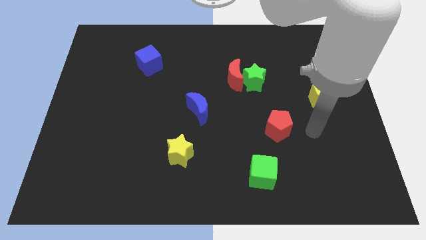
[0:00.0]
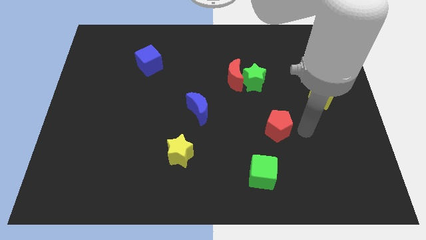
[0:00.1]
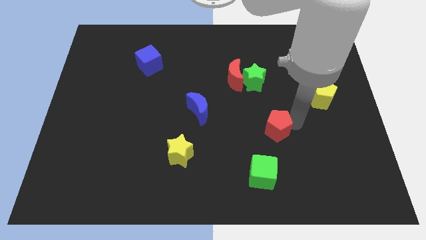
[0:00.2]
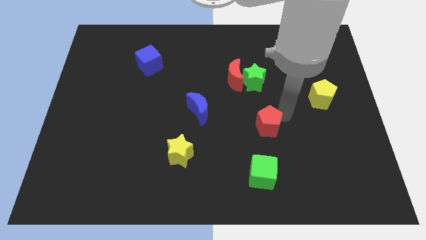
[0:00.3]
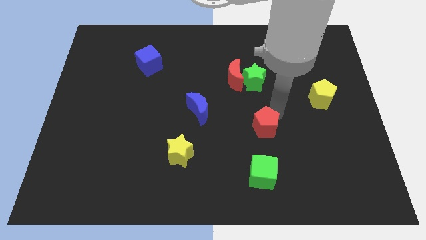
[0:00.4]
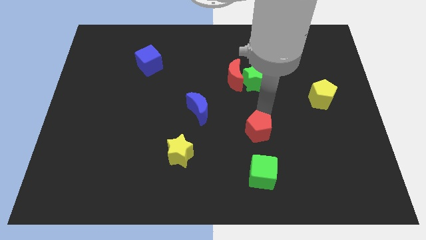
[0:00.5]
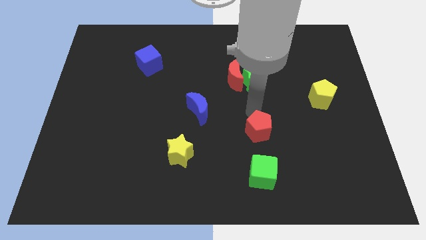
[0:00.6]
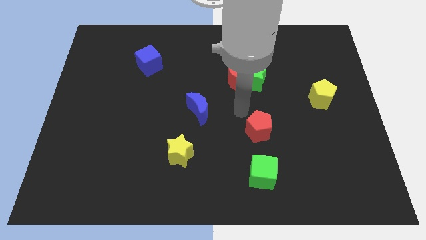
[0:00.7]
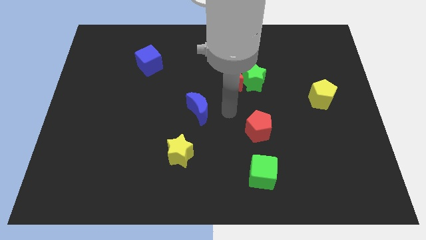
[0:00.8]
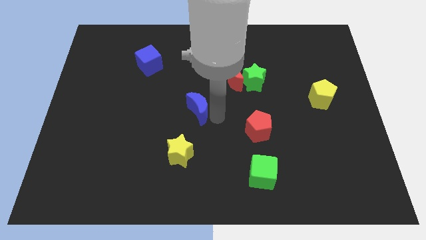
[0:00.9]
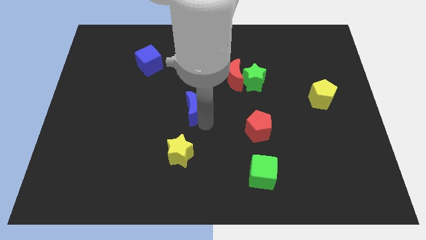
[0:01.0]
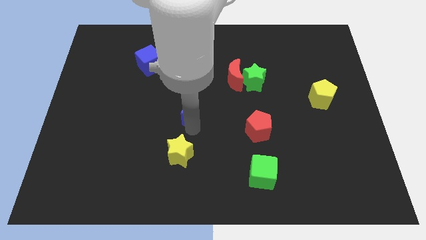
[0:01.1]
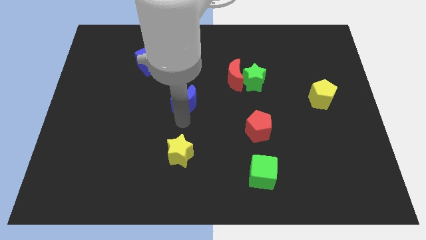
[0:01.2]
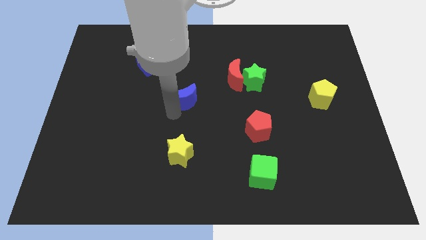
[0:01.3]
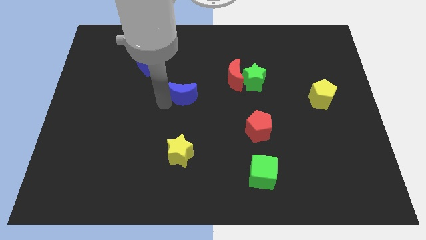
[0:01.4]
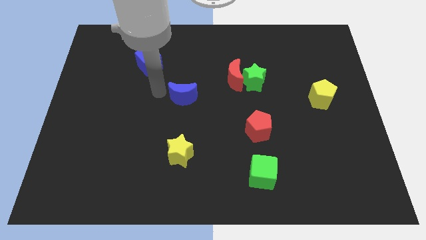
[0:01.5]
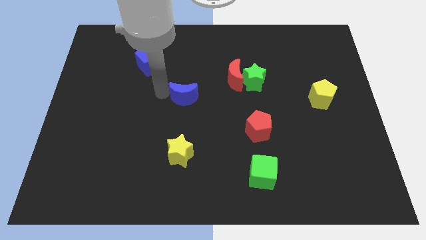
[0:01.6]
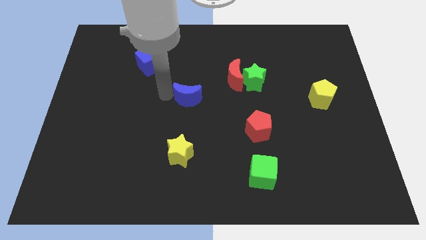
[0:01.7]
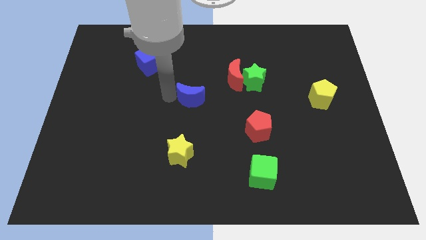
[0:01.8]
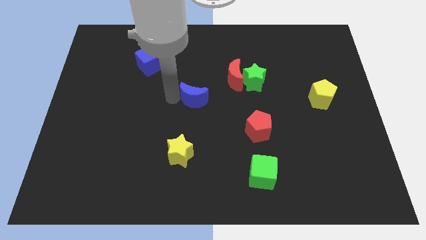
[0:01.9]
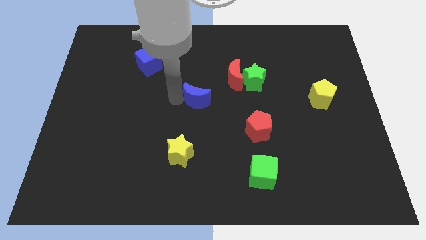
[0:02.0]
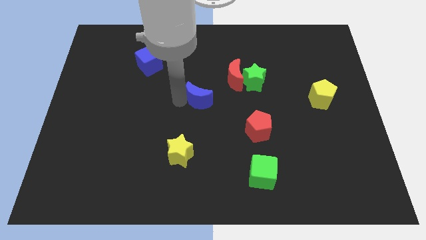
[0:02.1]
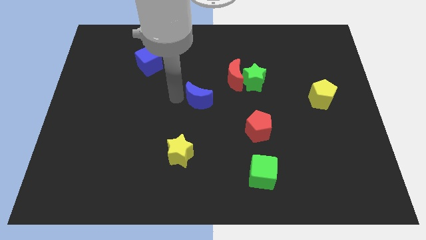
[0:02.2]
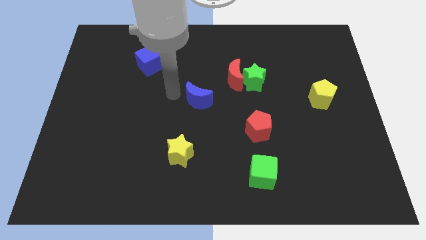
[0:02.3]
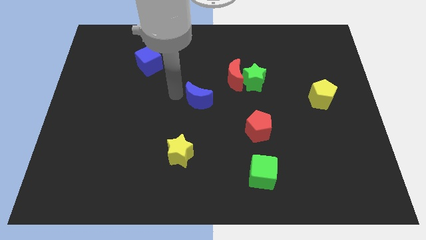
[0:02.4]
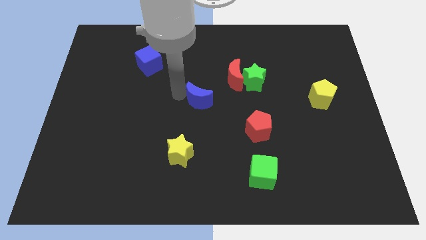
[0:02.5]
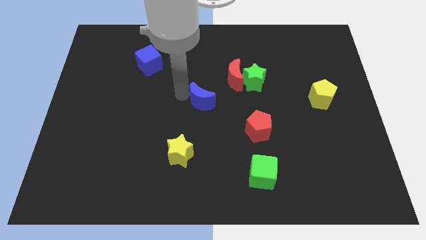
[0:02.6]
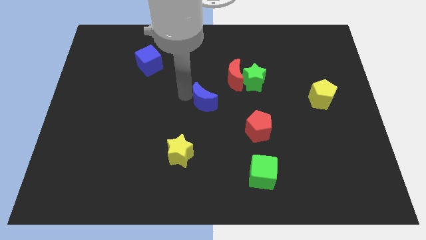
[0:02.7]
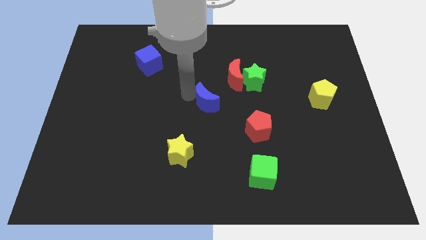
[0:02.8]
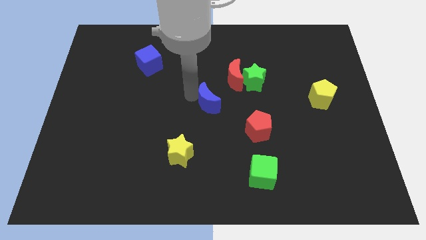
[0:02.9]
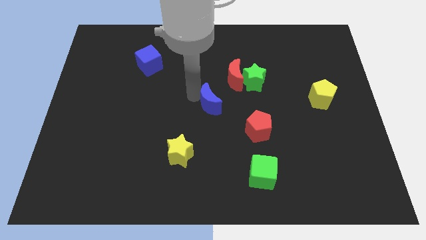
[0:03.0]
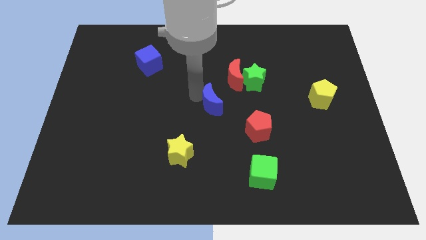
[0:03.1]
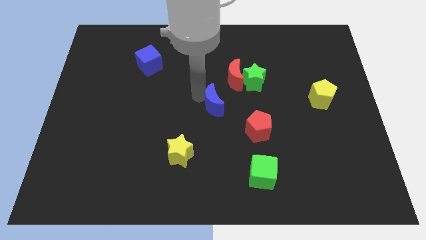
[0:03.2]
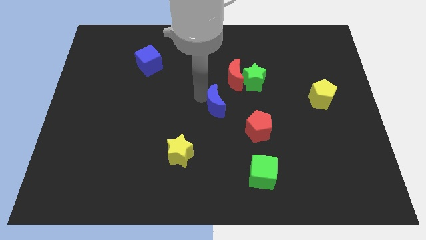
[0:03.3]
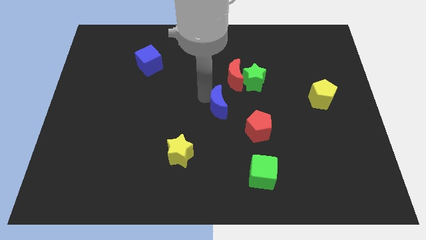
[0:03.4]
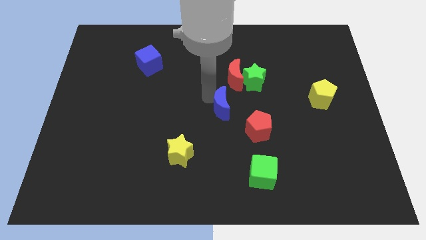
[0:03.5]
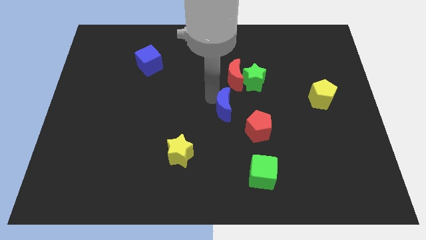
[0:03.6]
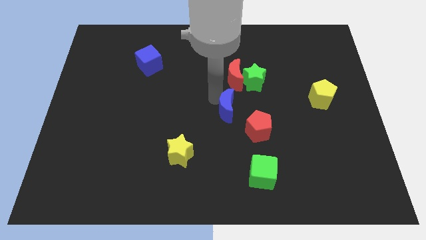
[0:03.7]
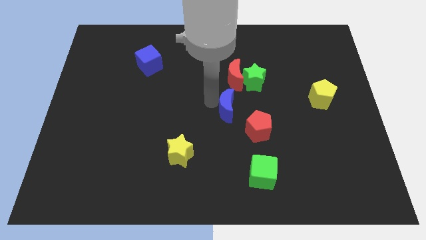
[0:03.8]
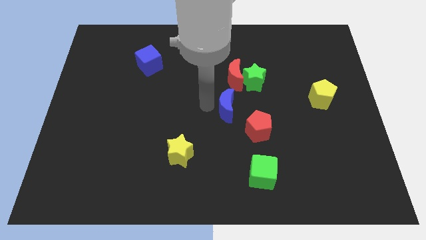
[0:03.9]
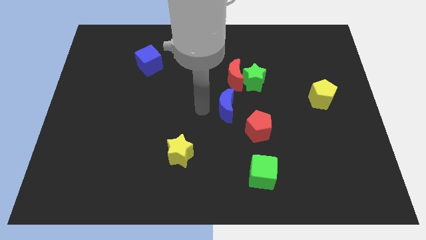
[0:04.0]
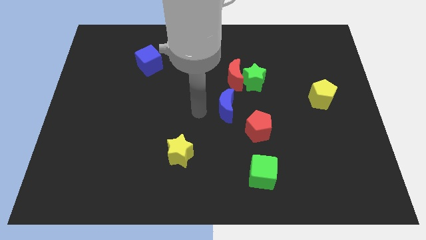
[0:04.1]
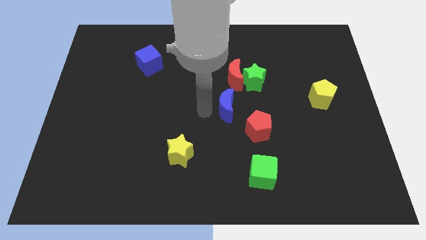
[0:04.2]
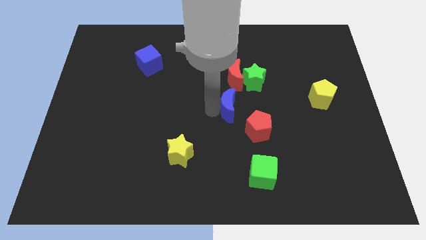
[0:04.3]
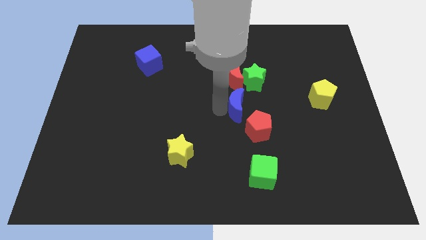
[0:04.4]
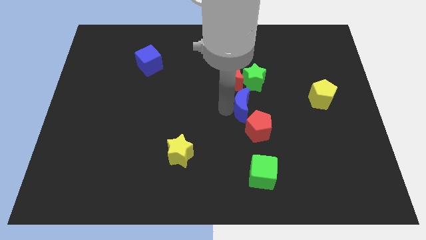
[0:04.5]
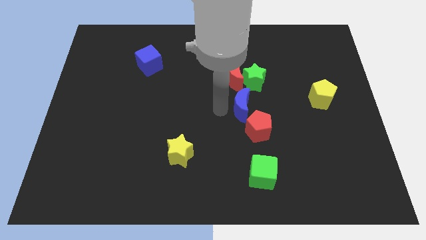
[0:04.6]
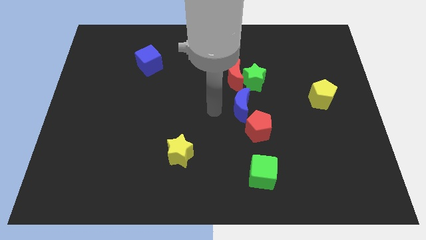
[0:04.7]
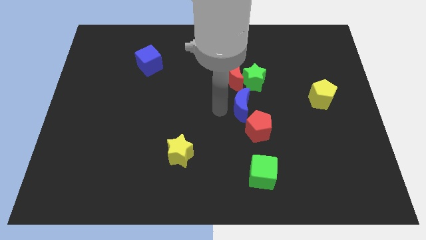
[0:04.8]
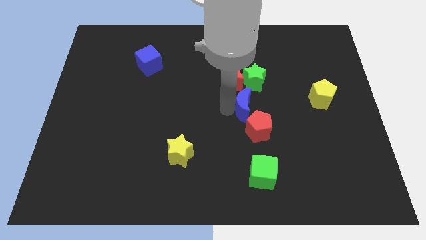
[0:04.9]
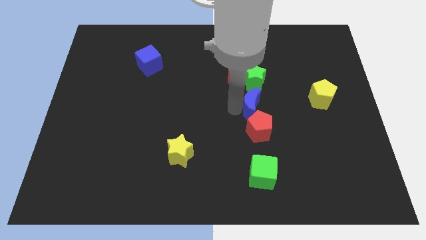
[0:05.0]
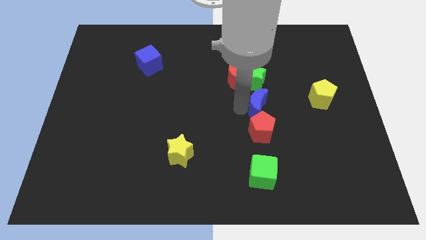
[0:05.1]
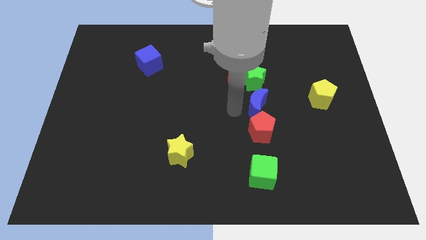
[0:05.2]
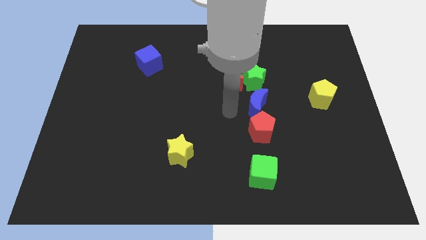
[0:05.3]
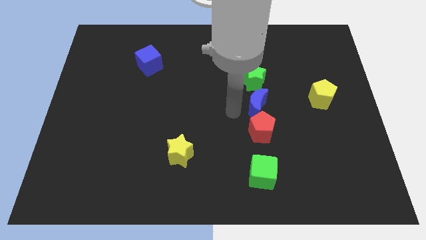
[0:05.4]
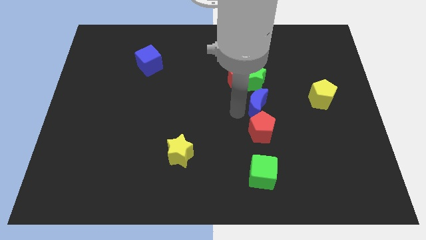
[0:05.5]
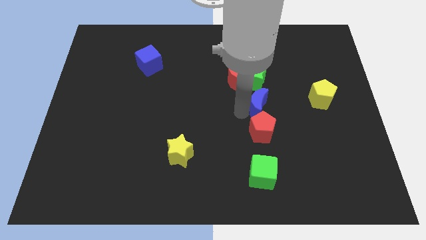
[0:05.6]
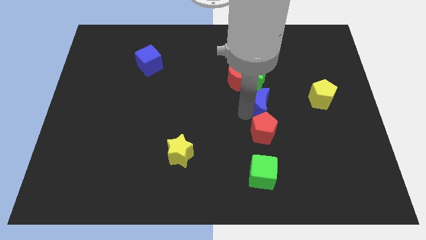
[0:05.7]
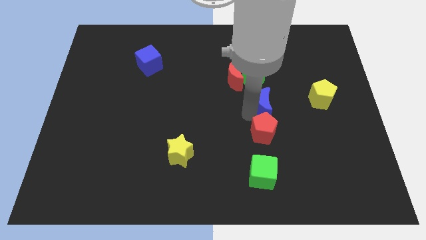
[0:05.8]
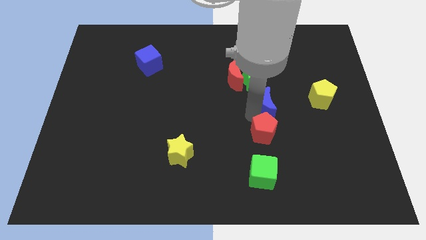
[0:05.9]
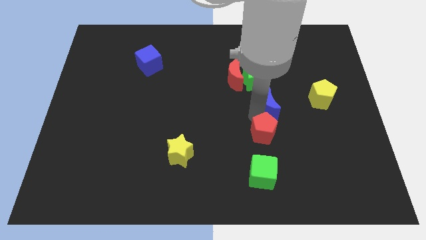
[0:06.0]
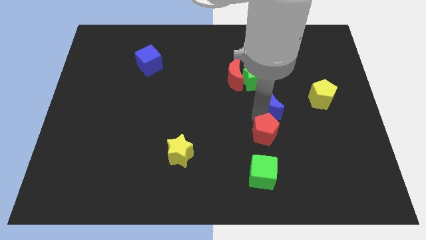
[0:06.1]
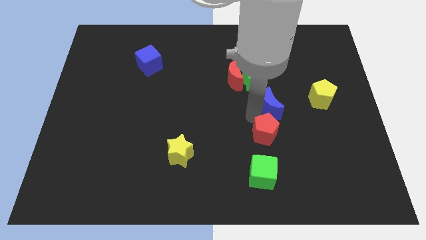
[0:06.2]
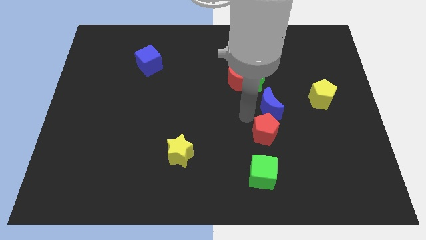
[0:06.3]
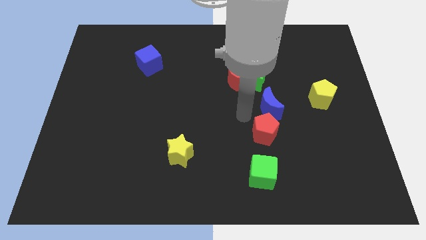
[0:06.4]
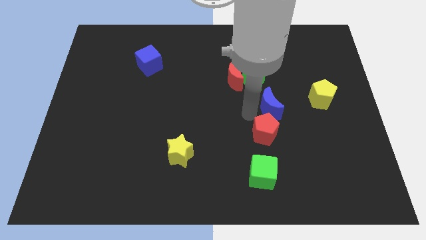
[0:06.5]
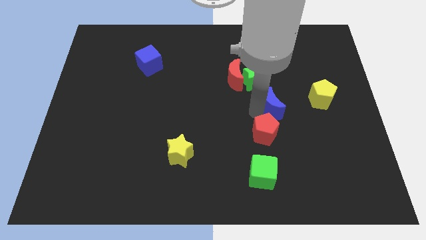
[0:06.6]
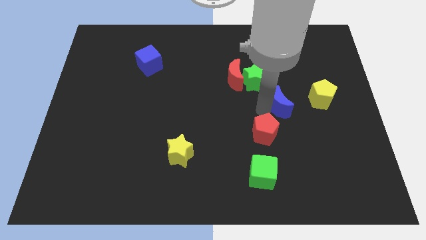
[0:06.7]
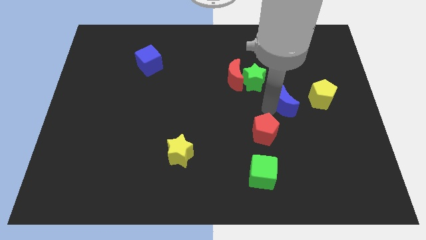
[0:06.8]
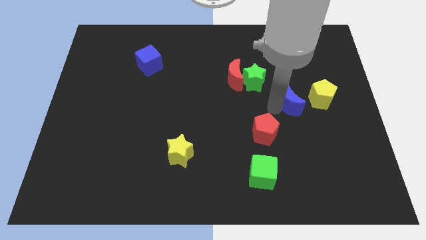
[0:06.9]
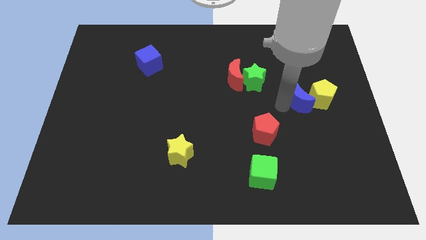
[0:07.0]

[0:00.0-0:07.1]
move the blue moon towards the yellow pentagon
